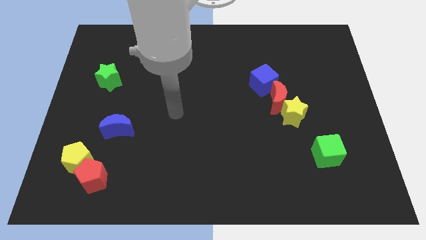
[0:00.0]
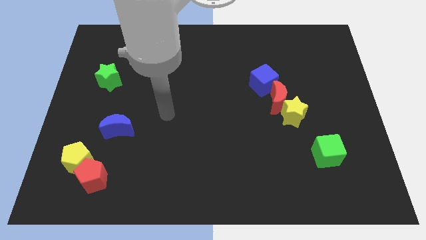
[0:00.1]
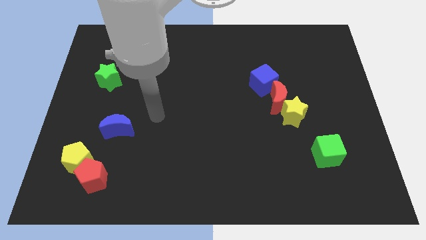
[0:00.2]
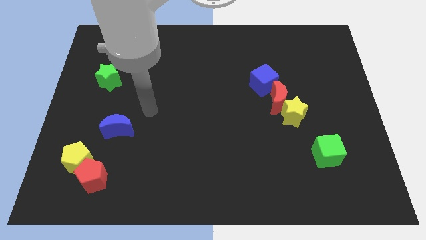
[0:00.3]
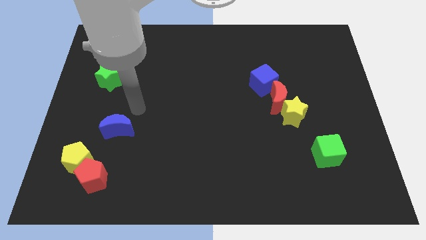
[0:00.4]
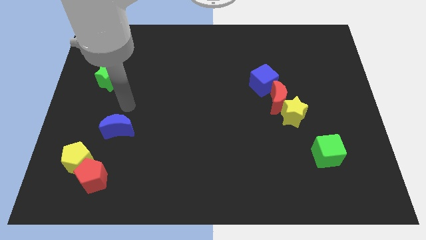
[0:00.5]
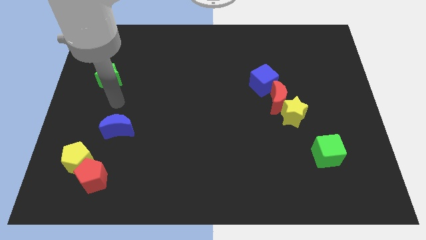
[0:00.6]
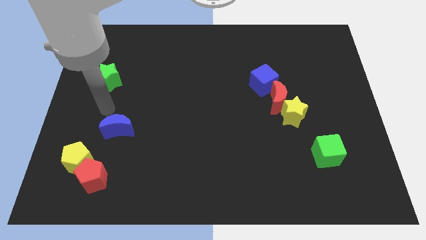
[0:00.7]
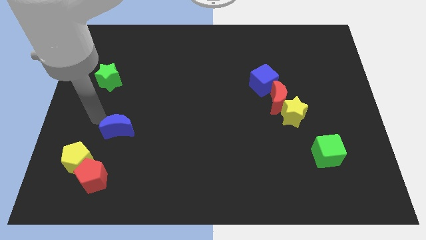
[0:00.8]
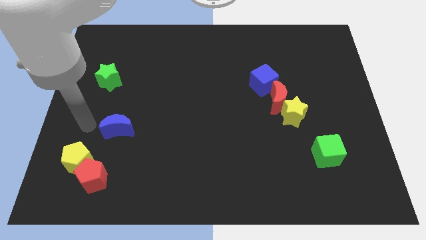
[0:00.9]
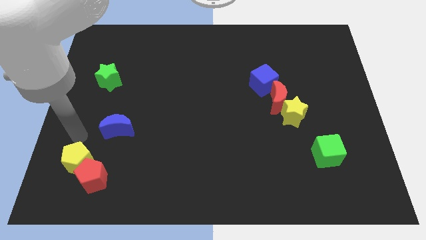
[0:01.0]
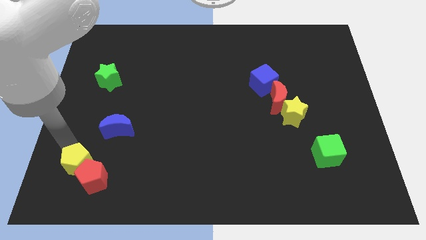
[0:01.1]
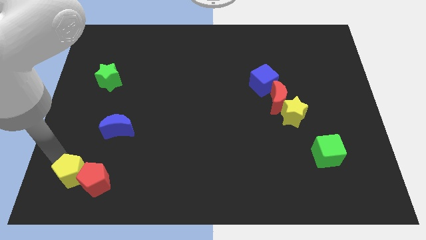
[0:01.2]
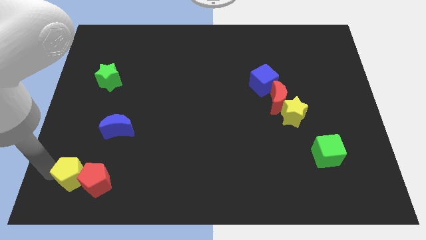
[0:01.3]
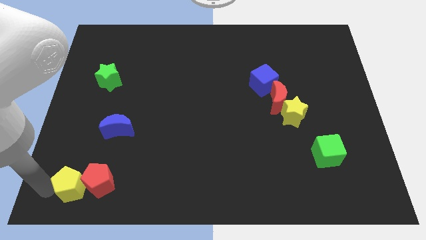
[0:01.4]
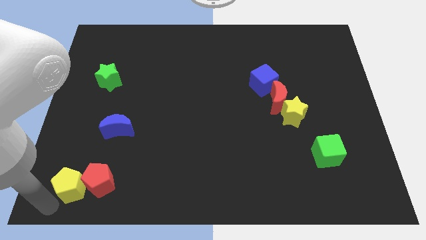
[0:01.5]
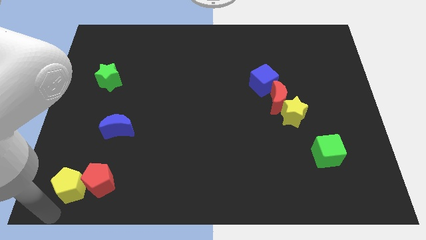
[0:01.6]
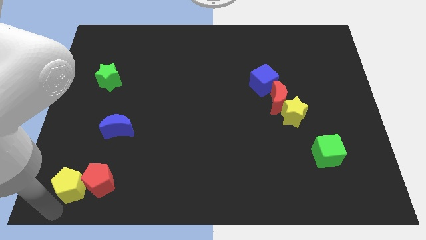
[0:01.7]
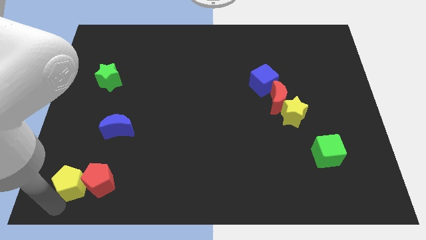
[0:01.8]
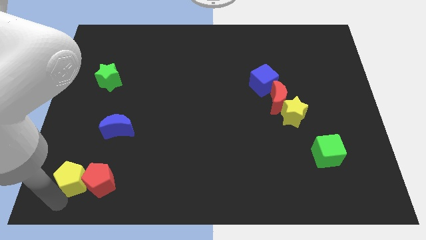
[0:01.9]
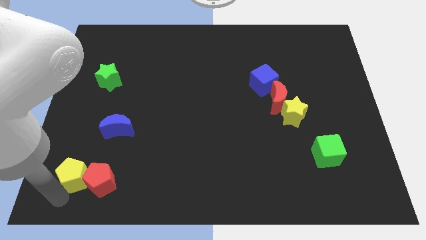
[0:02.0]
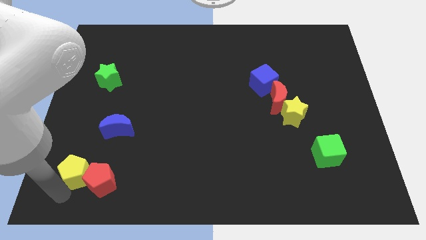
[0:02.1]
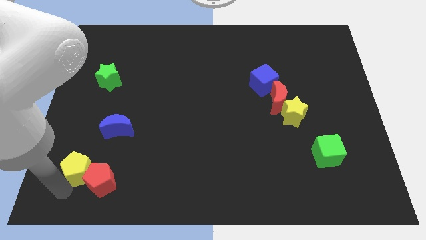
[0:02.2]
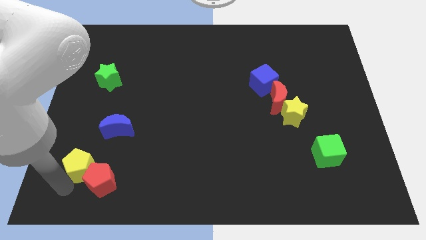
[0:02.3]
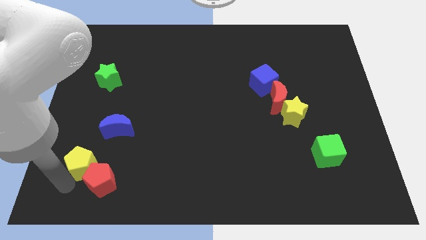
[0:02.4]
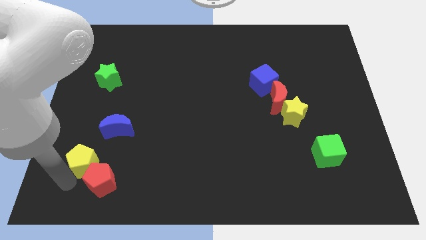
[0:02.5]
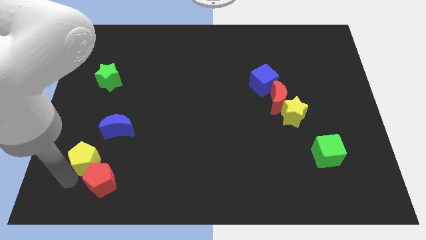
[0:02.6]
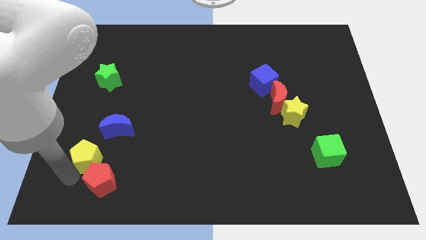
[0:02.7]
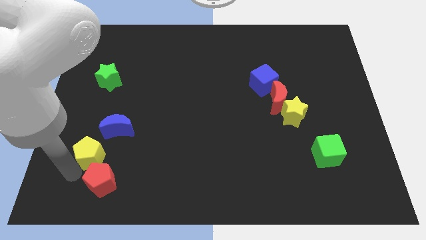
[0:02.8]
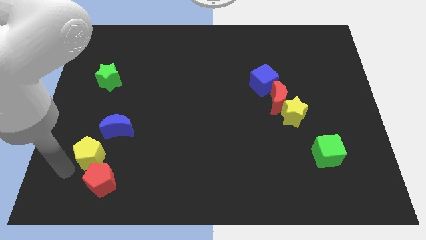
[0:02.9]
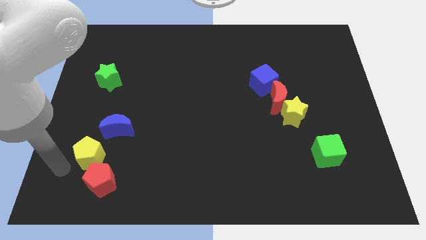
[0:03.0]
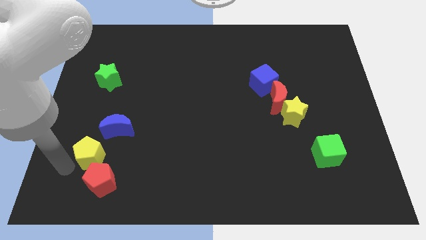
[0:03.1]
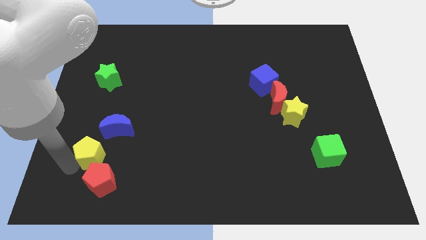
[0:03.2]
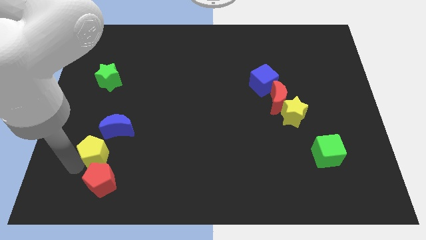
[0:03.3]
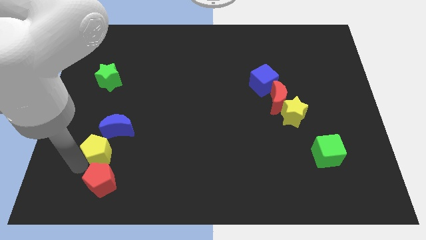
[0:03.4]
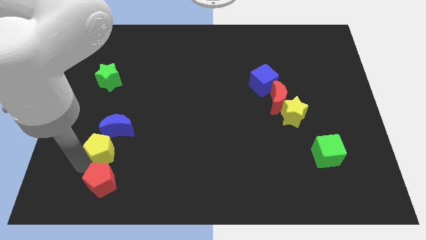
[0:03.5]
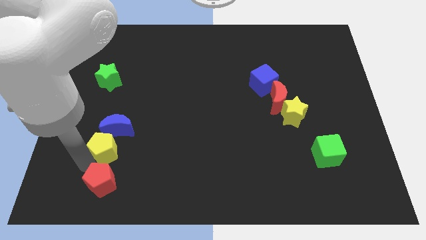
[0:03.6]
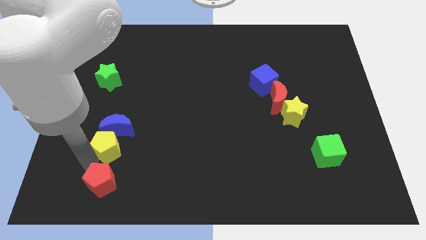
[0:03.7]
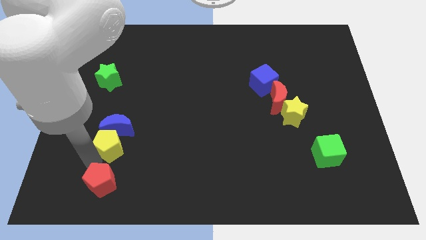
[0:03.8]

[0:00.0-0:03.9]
slide the yellow pentagon a little bit up and to the right

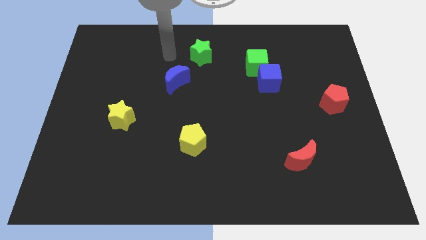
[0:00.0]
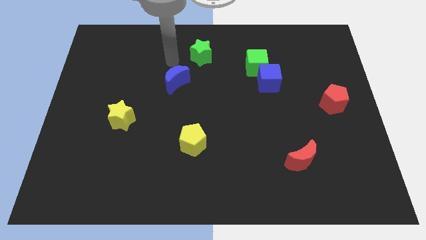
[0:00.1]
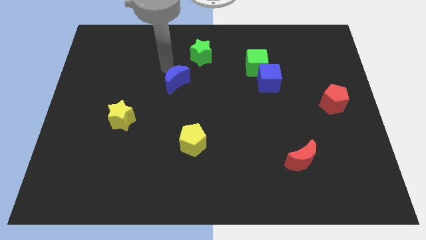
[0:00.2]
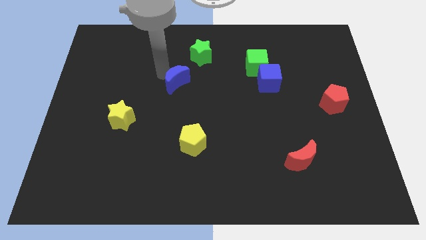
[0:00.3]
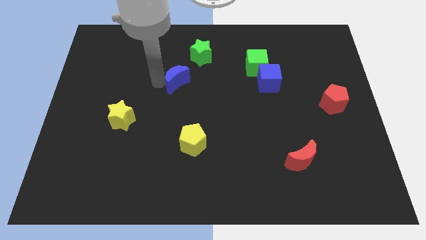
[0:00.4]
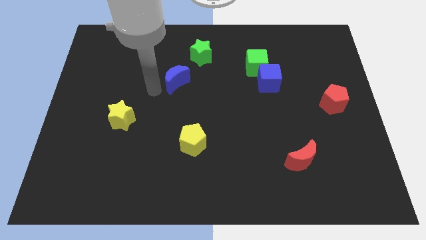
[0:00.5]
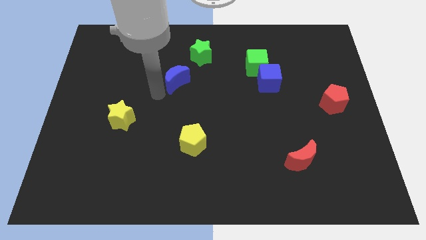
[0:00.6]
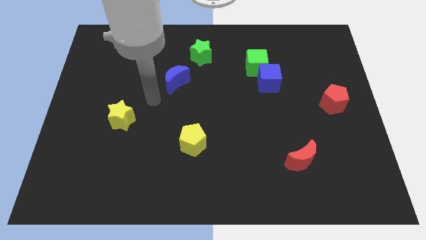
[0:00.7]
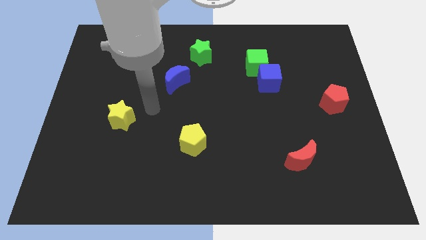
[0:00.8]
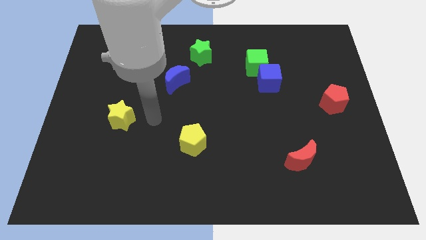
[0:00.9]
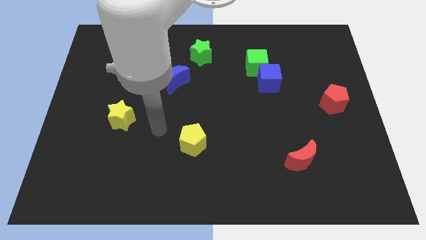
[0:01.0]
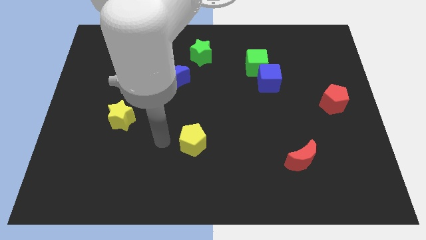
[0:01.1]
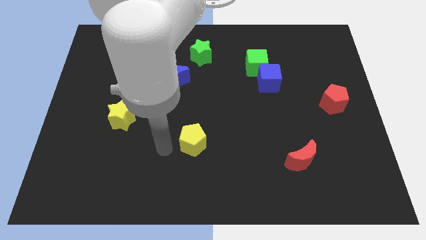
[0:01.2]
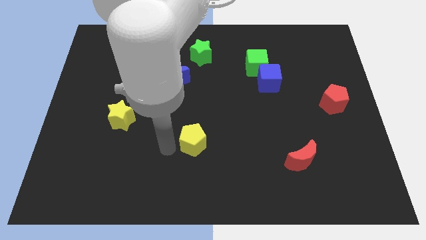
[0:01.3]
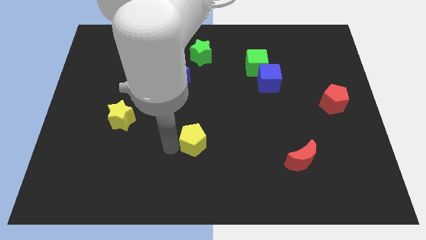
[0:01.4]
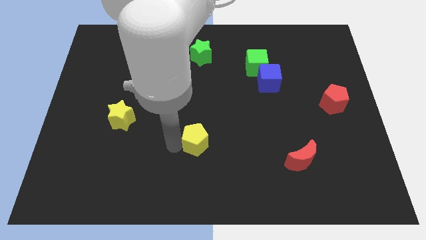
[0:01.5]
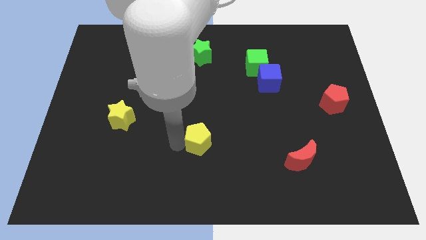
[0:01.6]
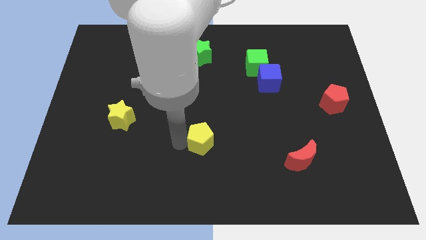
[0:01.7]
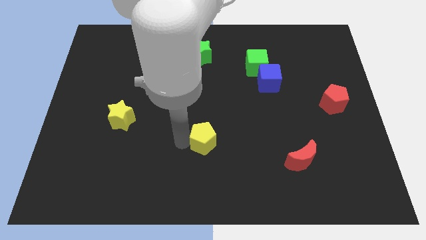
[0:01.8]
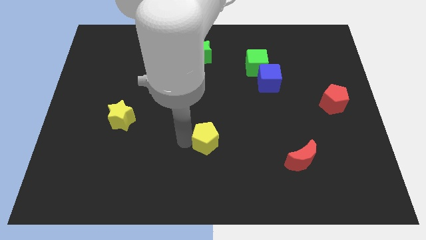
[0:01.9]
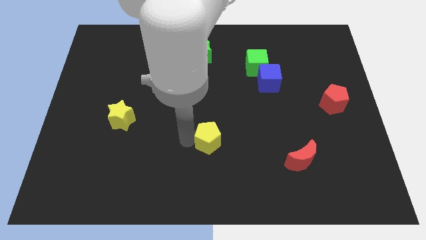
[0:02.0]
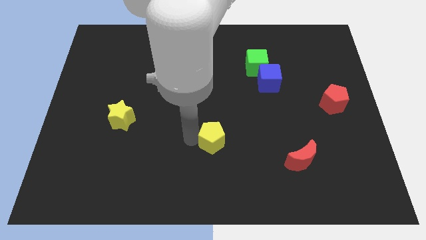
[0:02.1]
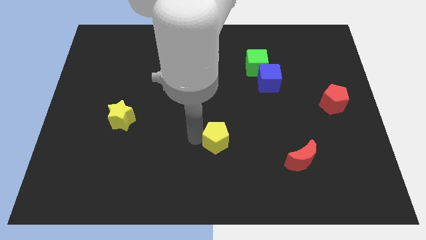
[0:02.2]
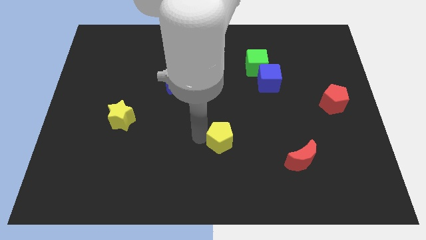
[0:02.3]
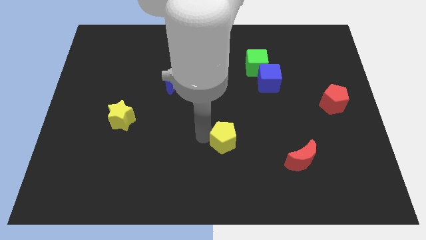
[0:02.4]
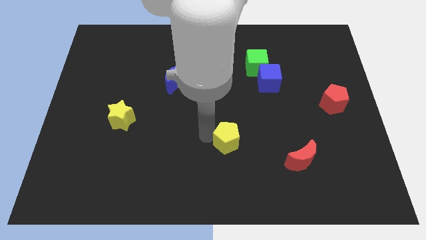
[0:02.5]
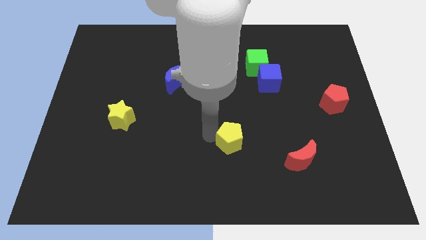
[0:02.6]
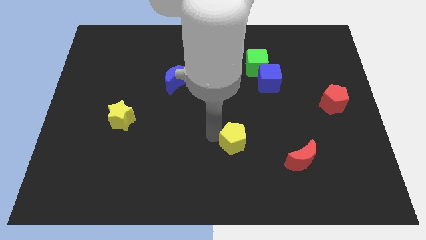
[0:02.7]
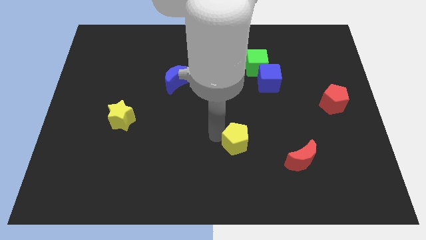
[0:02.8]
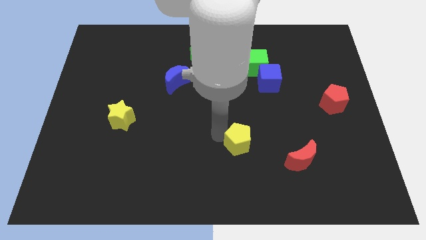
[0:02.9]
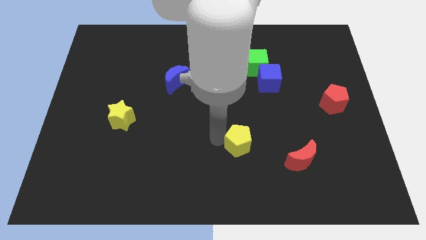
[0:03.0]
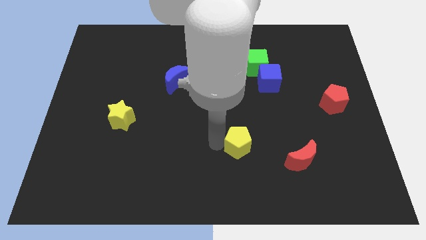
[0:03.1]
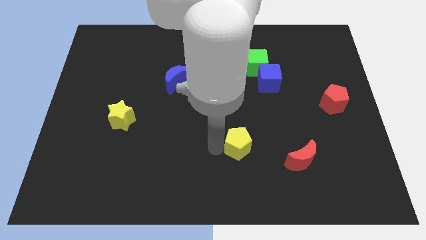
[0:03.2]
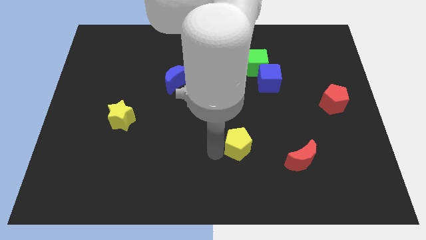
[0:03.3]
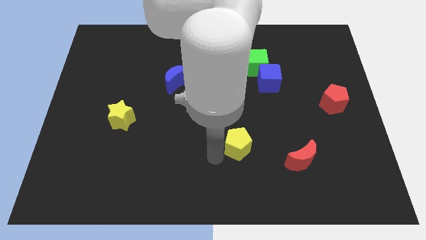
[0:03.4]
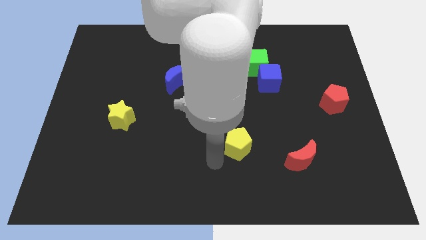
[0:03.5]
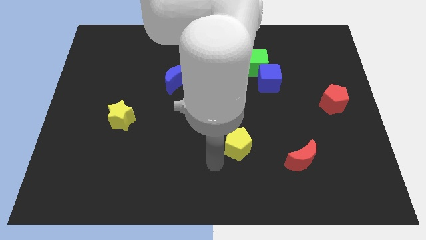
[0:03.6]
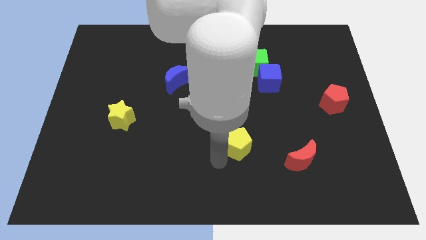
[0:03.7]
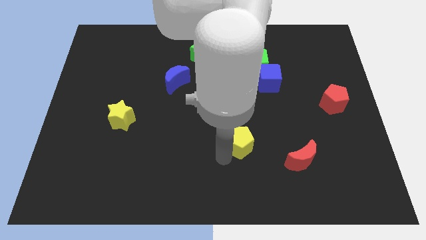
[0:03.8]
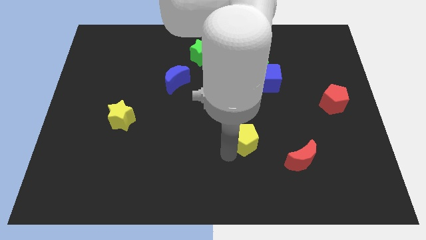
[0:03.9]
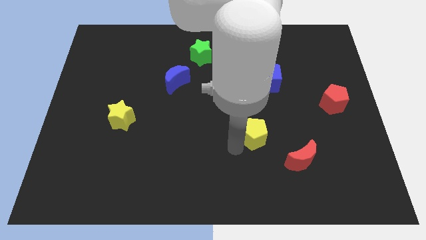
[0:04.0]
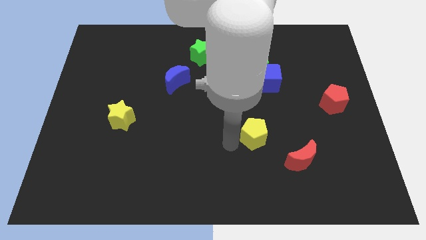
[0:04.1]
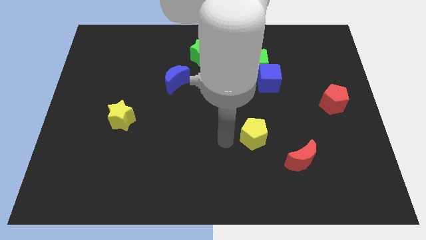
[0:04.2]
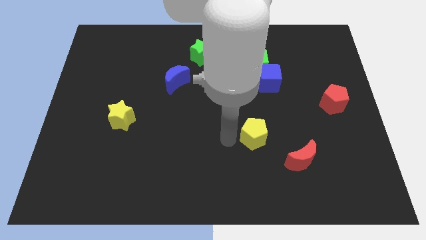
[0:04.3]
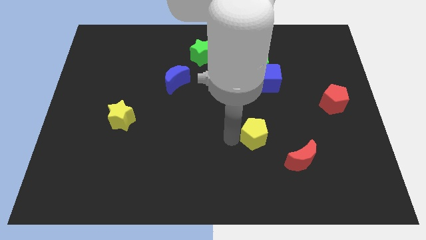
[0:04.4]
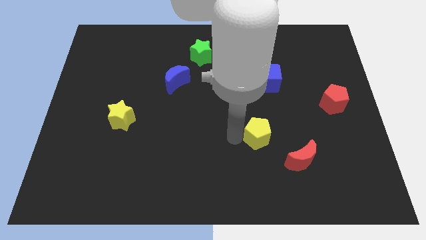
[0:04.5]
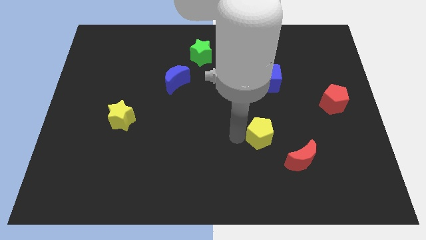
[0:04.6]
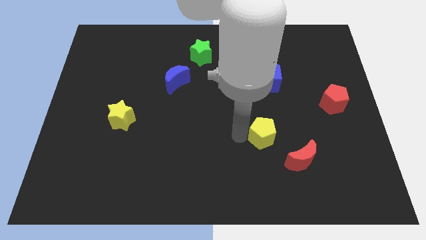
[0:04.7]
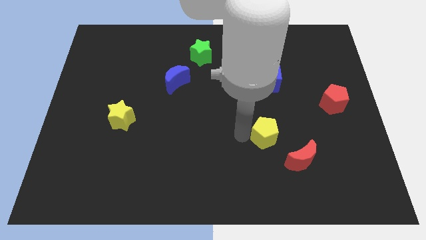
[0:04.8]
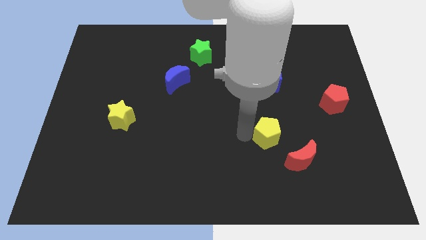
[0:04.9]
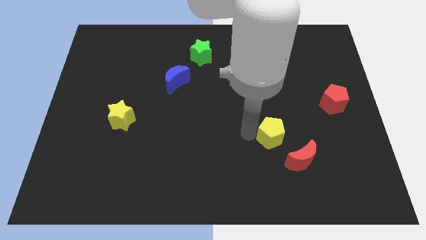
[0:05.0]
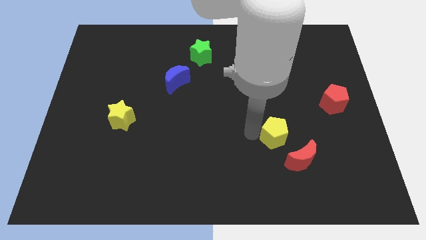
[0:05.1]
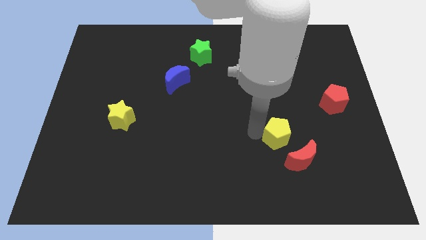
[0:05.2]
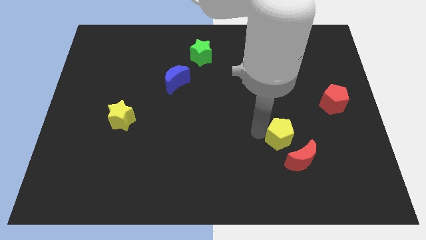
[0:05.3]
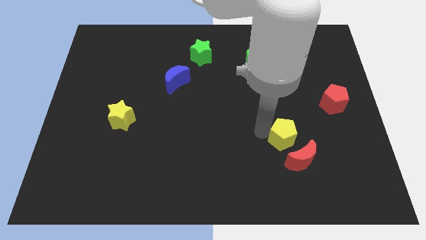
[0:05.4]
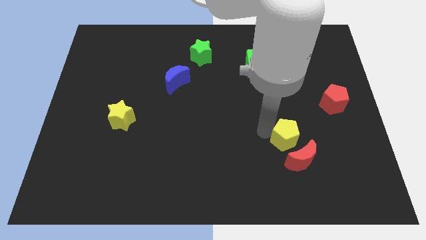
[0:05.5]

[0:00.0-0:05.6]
slide the yellow pentagon right
